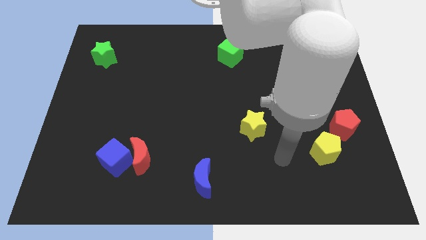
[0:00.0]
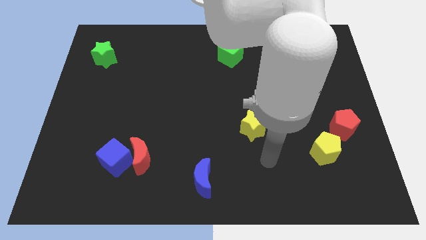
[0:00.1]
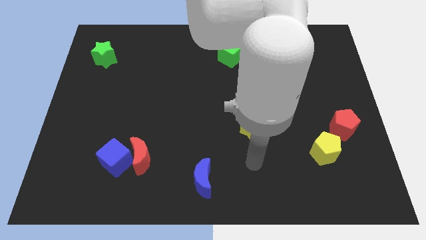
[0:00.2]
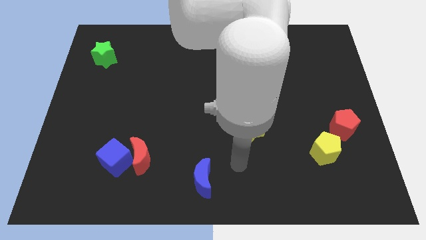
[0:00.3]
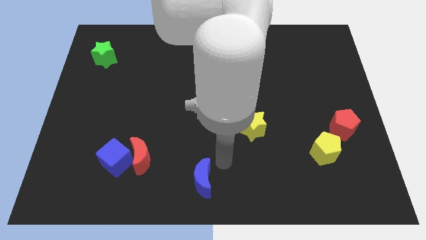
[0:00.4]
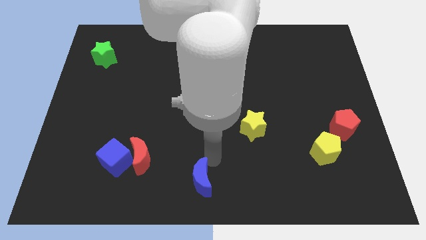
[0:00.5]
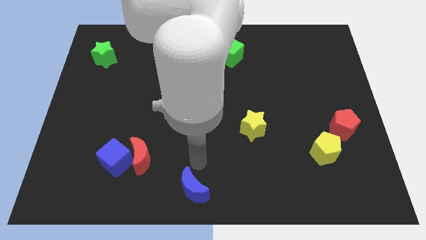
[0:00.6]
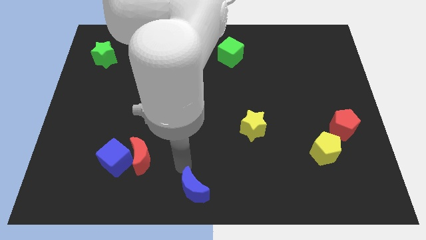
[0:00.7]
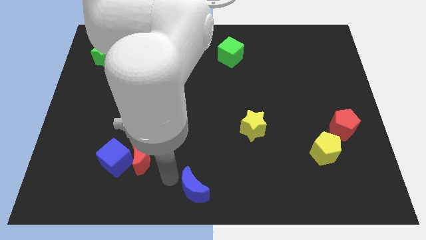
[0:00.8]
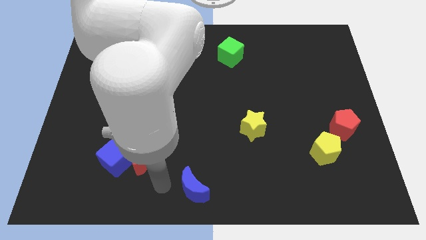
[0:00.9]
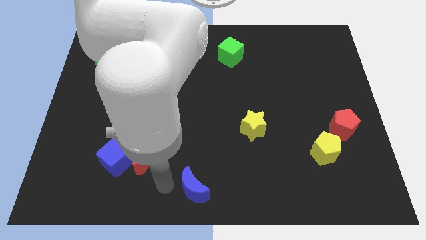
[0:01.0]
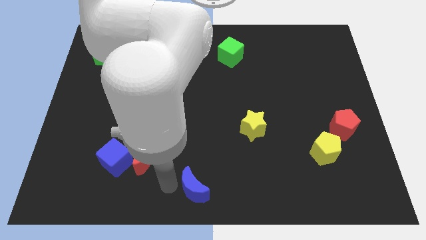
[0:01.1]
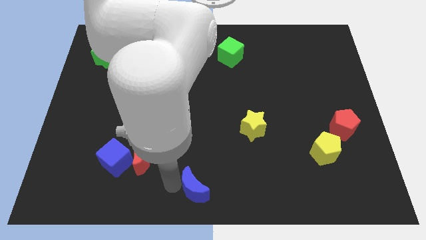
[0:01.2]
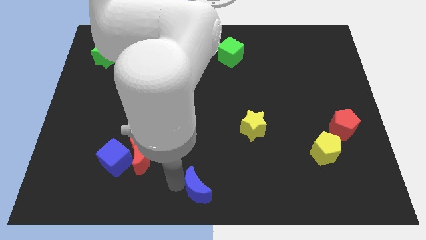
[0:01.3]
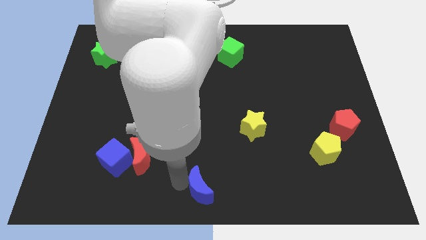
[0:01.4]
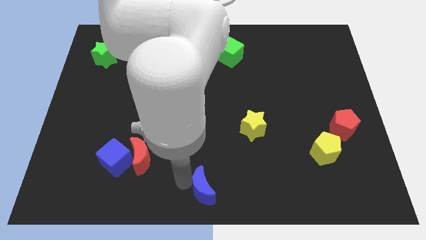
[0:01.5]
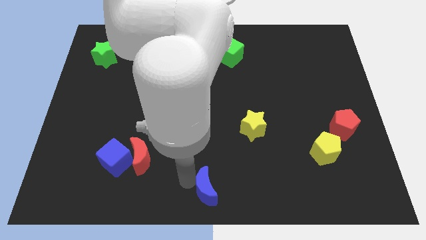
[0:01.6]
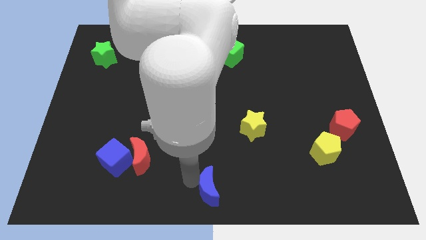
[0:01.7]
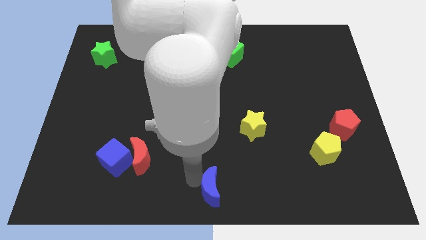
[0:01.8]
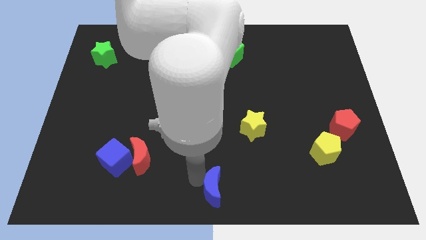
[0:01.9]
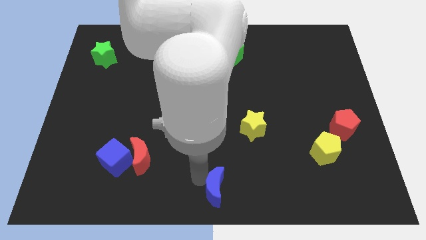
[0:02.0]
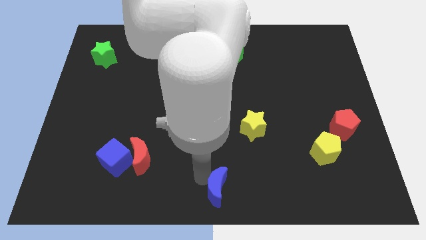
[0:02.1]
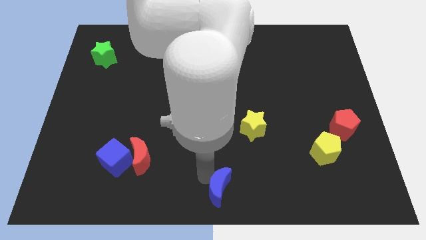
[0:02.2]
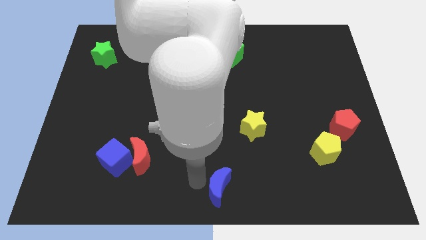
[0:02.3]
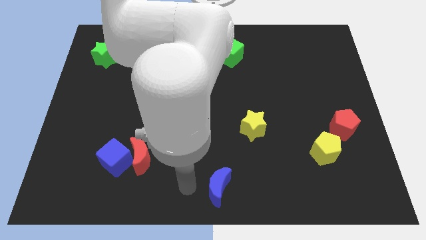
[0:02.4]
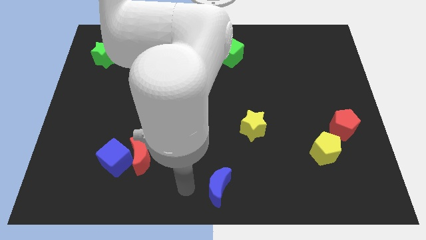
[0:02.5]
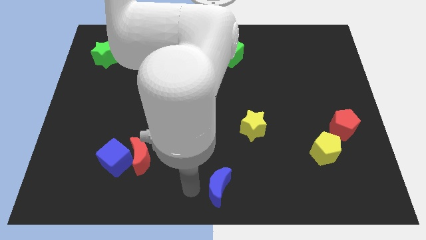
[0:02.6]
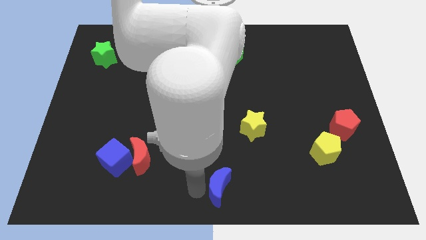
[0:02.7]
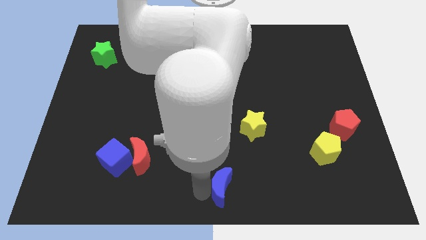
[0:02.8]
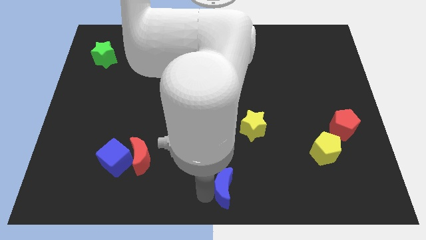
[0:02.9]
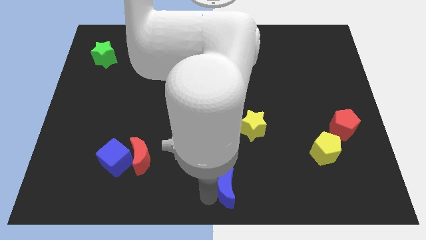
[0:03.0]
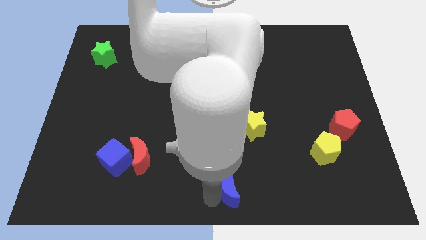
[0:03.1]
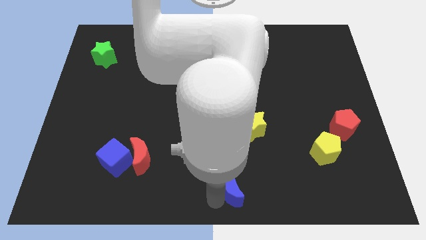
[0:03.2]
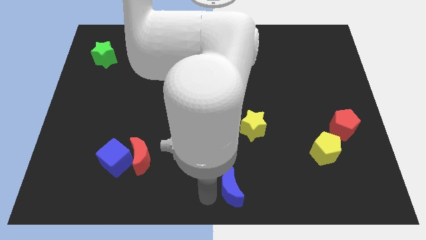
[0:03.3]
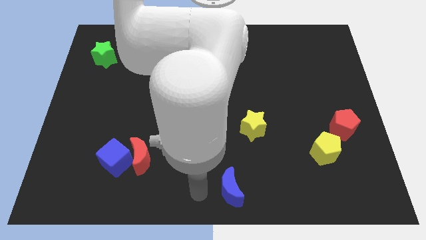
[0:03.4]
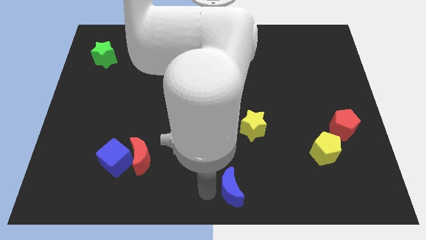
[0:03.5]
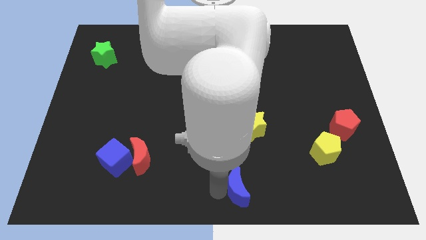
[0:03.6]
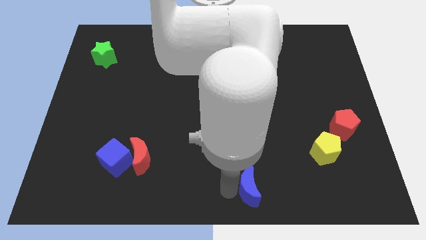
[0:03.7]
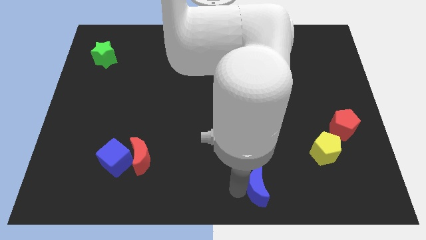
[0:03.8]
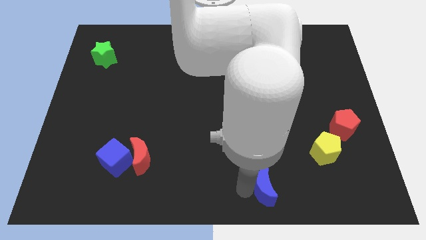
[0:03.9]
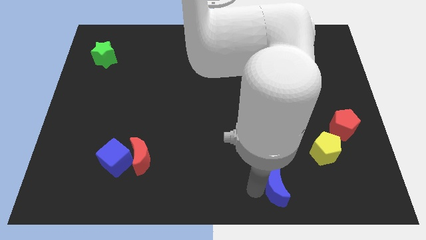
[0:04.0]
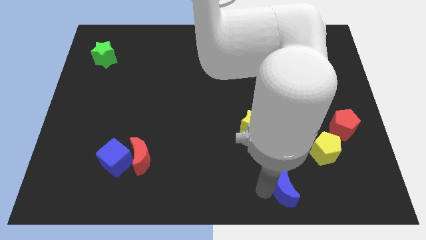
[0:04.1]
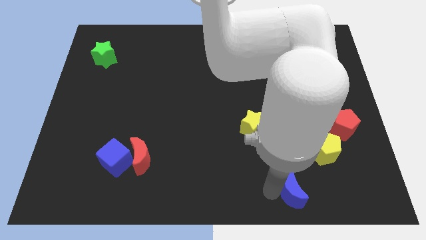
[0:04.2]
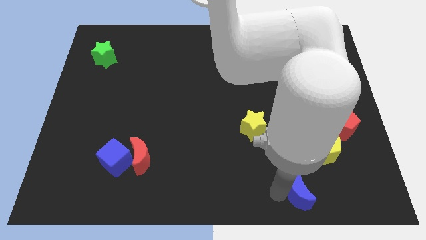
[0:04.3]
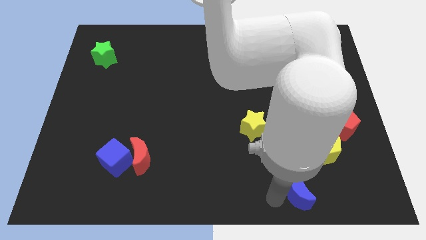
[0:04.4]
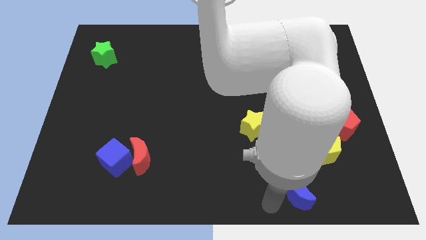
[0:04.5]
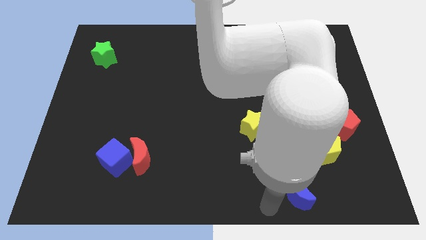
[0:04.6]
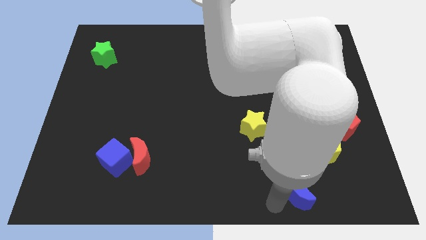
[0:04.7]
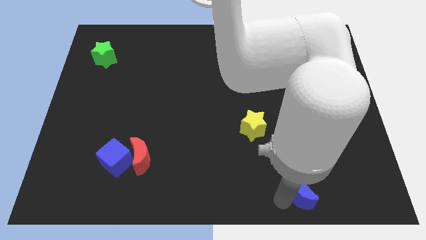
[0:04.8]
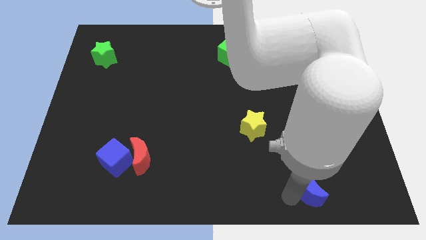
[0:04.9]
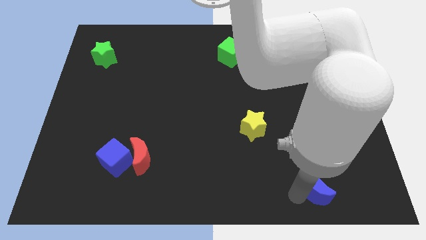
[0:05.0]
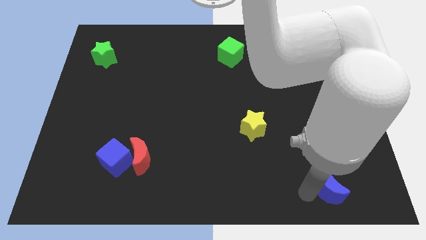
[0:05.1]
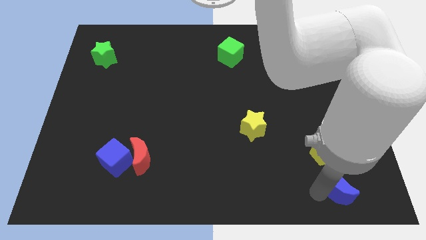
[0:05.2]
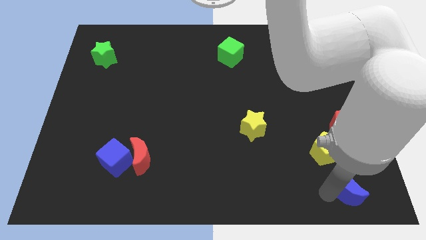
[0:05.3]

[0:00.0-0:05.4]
push the blue moon to the bottom side of the red pentagon

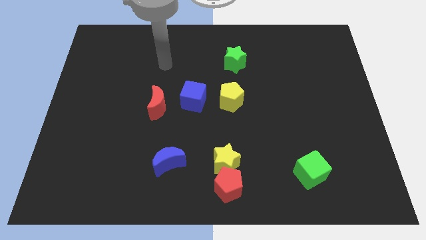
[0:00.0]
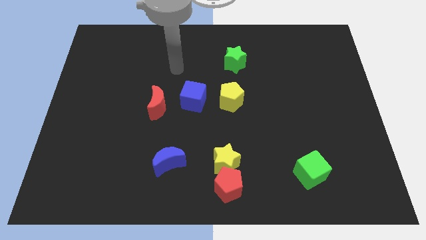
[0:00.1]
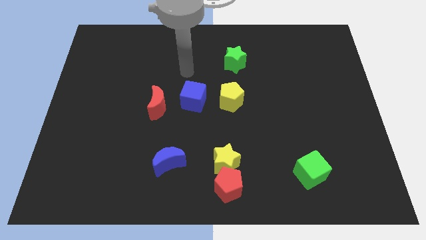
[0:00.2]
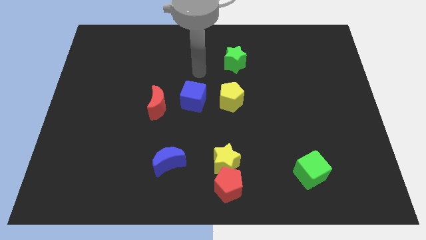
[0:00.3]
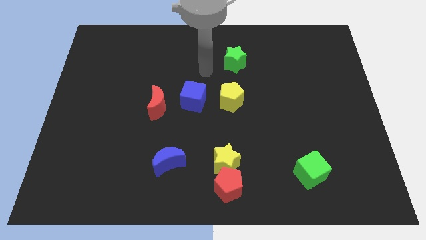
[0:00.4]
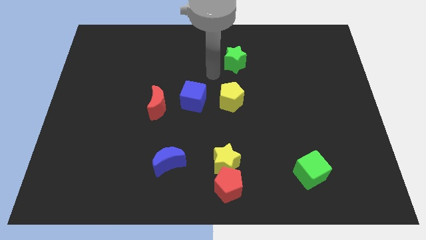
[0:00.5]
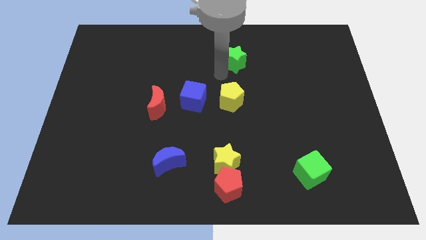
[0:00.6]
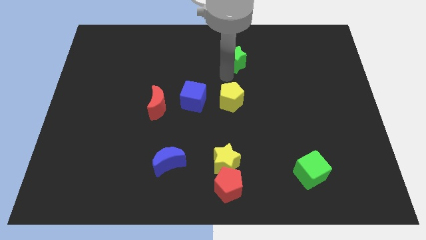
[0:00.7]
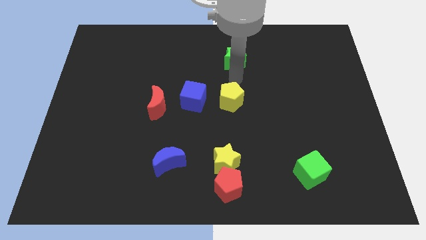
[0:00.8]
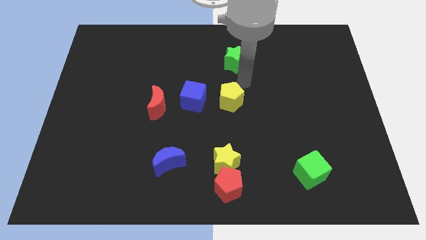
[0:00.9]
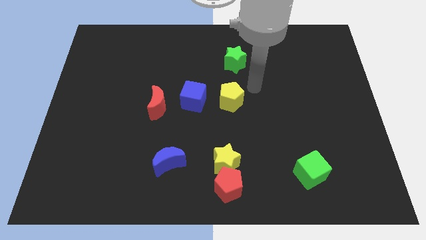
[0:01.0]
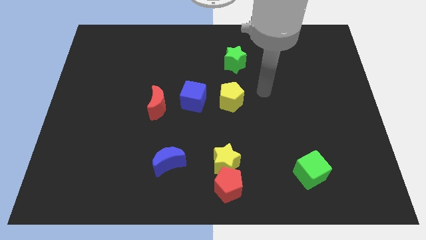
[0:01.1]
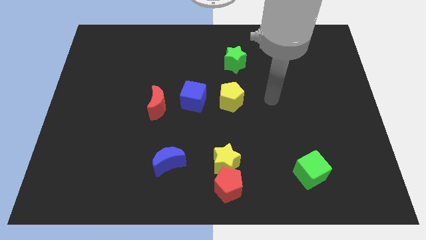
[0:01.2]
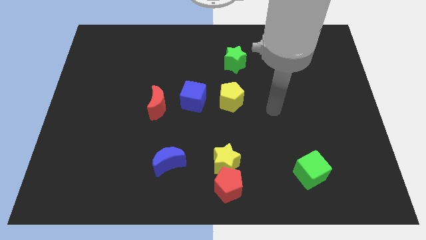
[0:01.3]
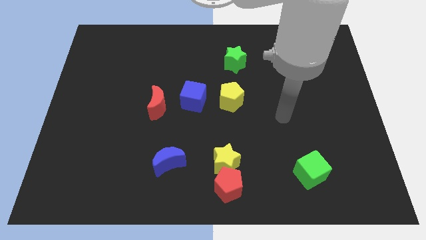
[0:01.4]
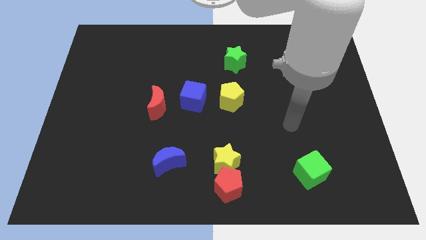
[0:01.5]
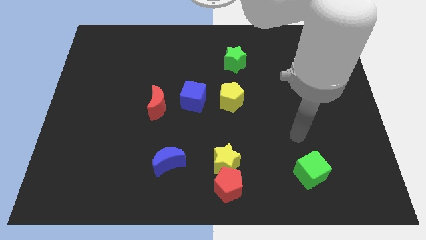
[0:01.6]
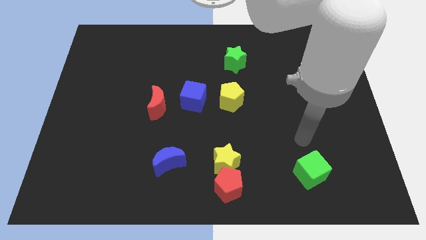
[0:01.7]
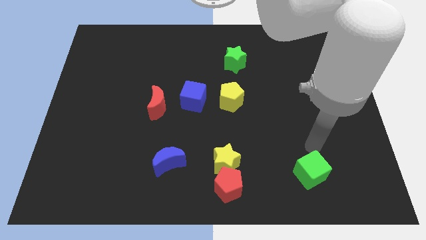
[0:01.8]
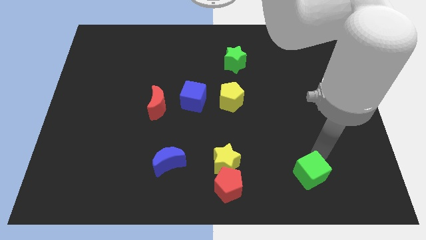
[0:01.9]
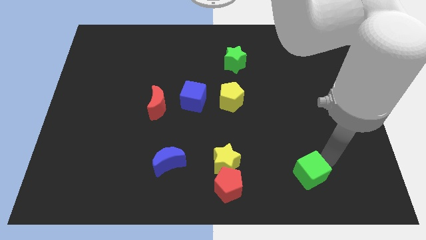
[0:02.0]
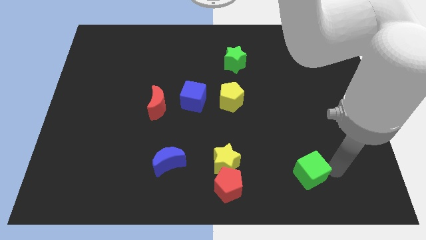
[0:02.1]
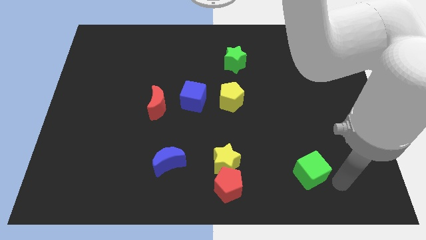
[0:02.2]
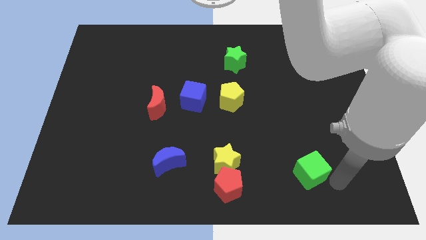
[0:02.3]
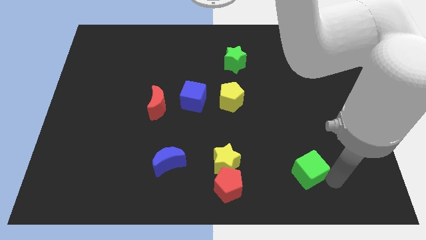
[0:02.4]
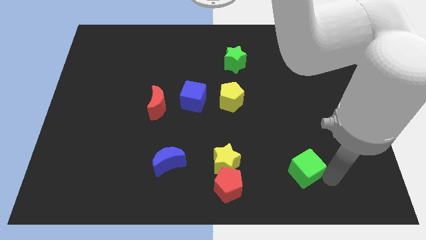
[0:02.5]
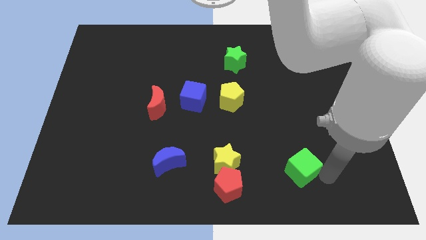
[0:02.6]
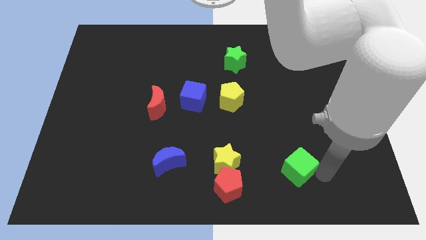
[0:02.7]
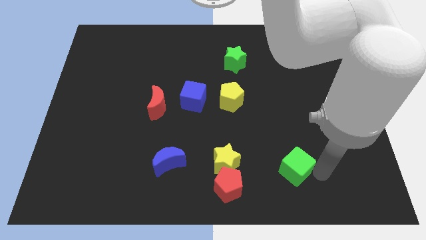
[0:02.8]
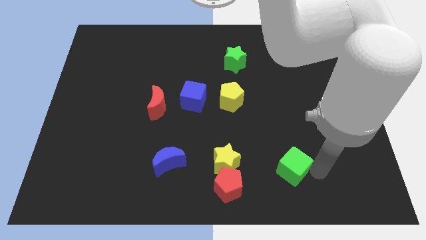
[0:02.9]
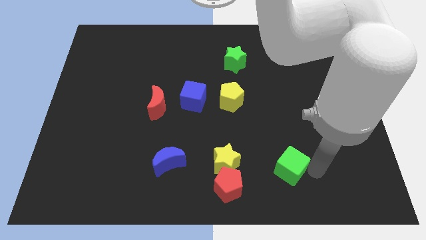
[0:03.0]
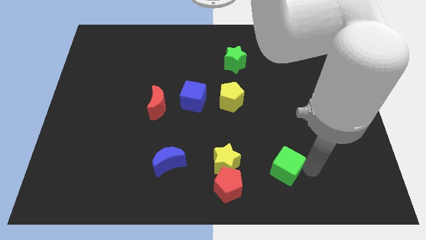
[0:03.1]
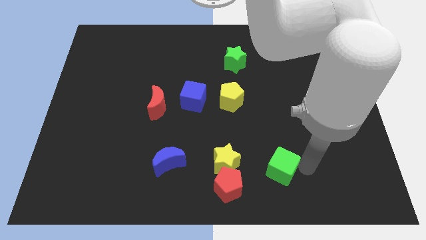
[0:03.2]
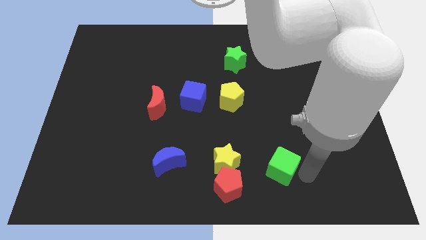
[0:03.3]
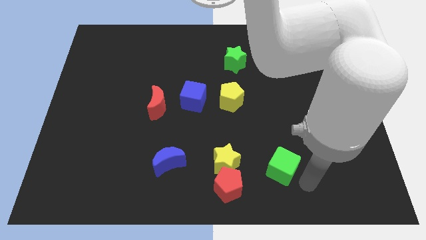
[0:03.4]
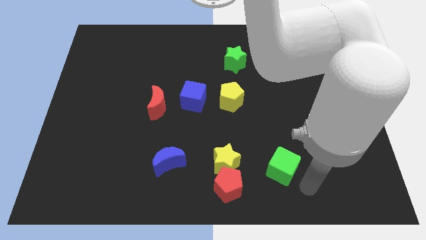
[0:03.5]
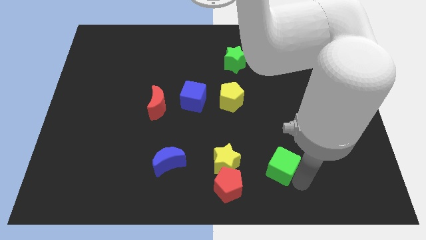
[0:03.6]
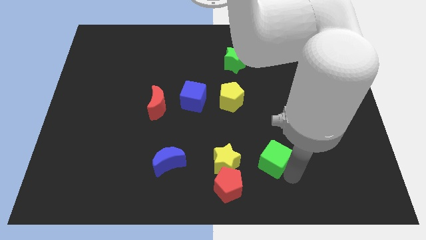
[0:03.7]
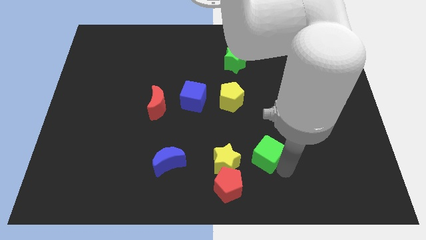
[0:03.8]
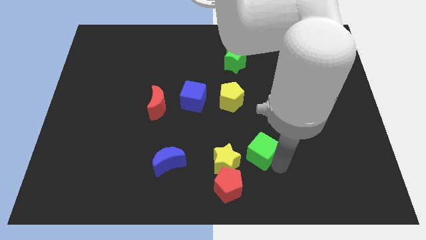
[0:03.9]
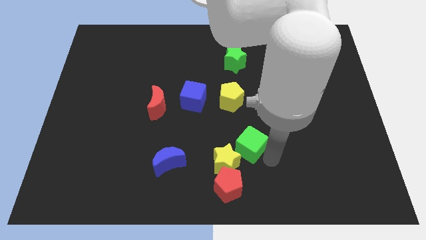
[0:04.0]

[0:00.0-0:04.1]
move the green cube to the bottom side of the yellow pentagon
